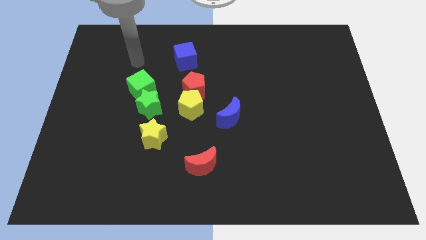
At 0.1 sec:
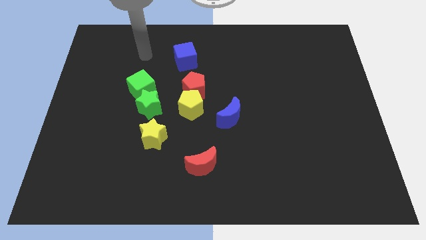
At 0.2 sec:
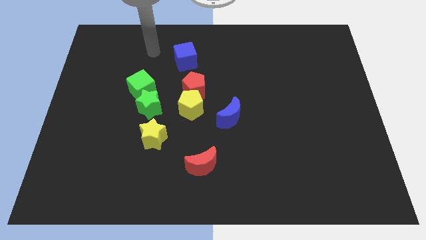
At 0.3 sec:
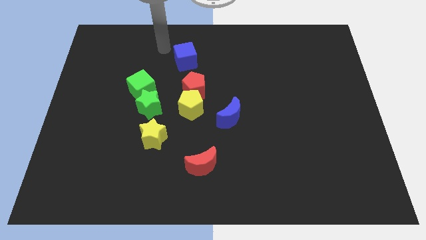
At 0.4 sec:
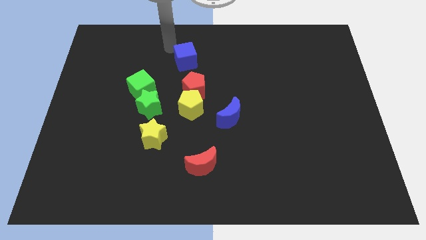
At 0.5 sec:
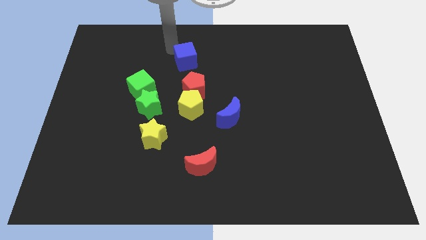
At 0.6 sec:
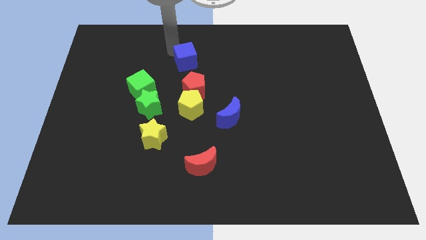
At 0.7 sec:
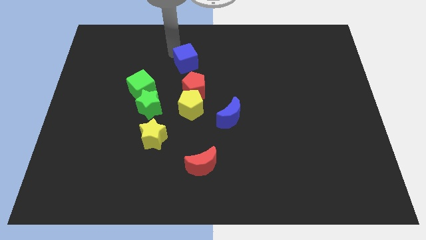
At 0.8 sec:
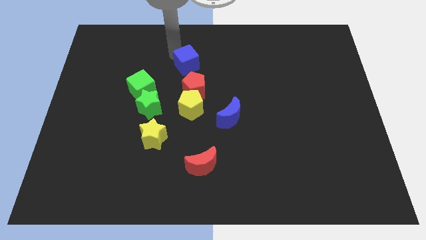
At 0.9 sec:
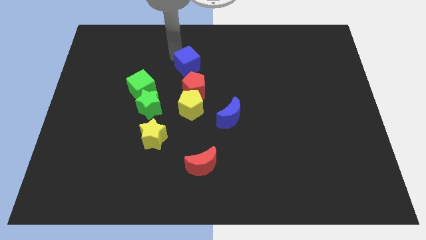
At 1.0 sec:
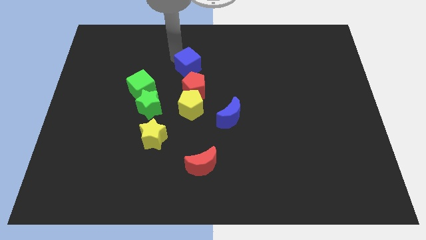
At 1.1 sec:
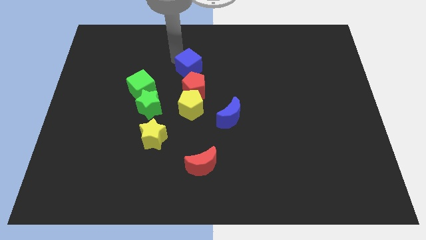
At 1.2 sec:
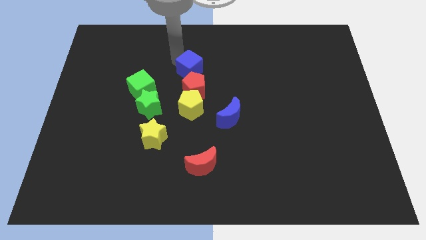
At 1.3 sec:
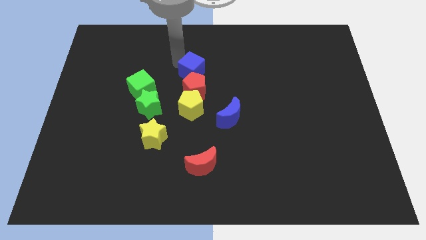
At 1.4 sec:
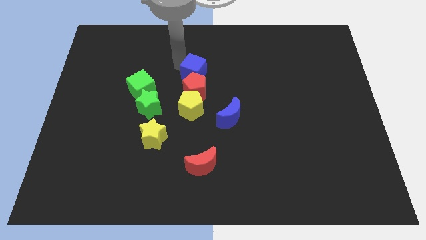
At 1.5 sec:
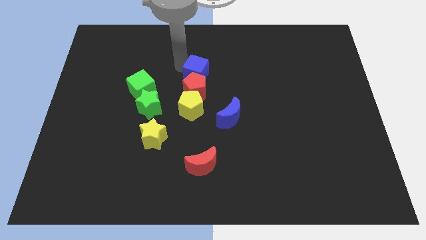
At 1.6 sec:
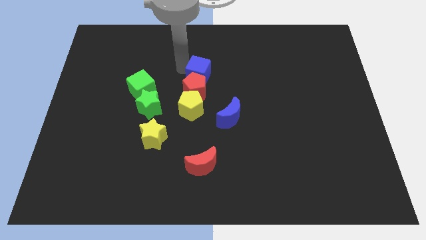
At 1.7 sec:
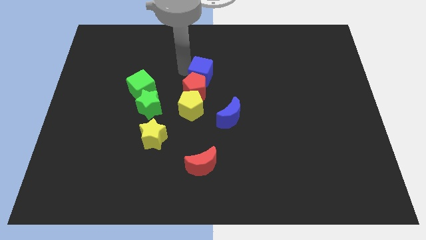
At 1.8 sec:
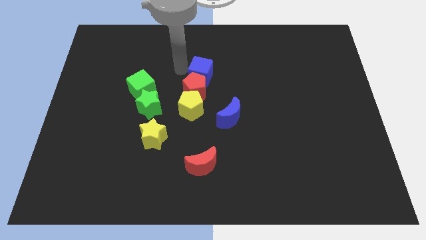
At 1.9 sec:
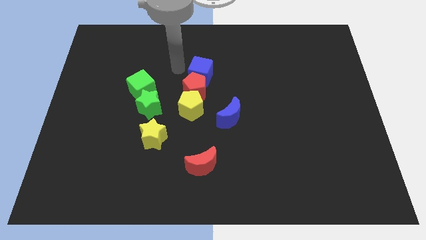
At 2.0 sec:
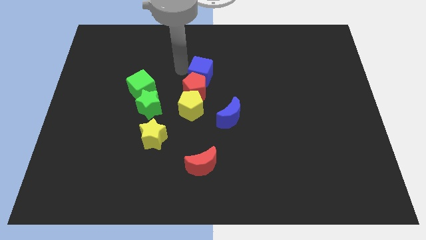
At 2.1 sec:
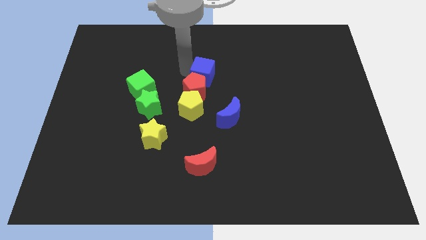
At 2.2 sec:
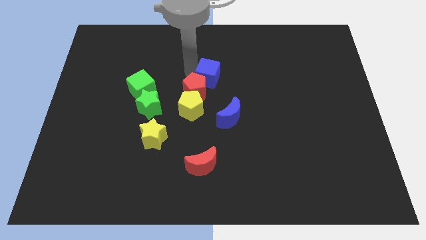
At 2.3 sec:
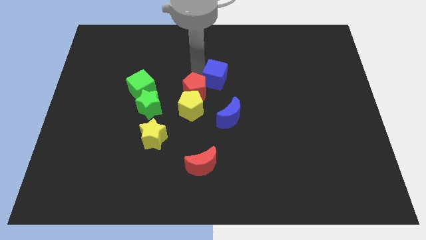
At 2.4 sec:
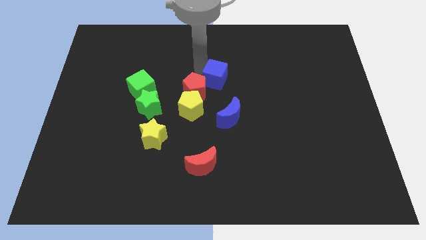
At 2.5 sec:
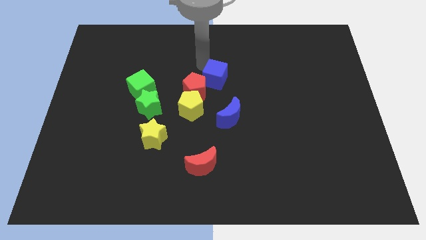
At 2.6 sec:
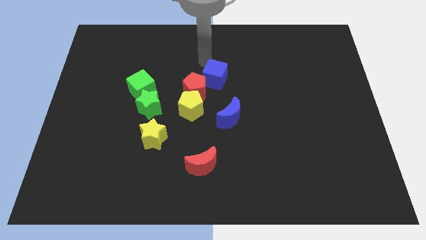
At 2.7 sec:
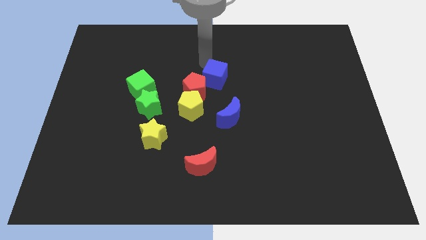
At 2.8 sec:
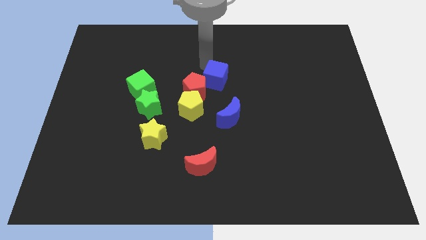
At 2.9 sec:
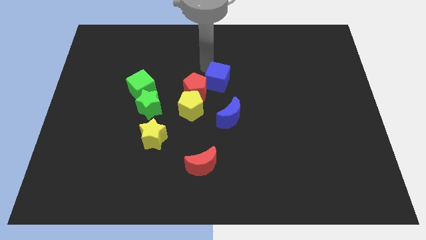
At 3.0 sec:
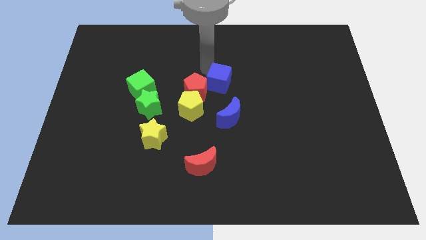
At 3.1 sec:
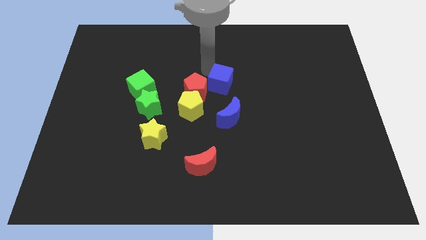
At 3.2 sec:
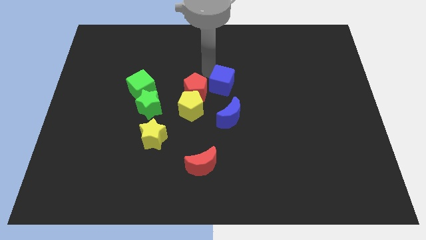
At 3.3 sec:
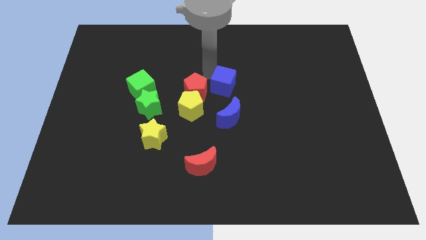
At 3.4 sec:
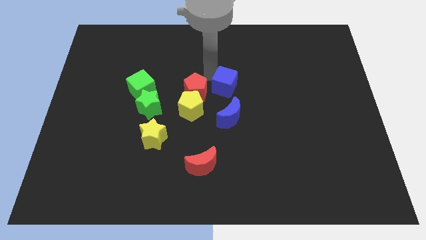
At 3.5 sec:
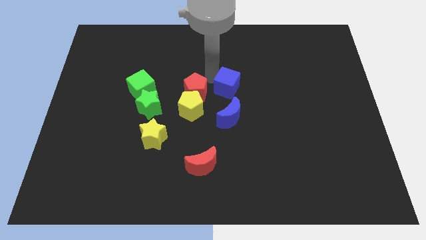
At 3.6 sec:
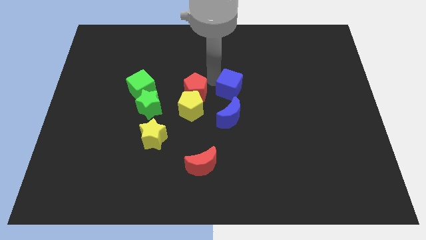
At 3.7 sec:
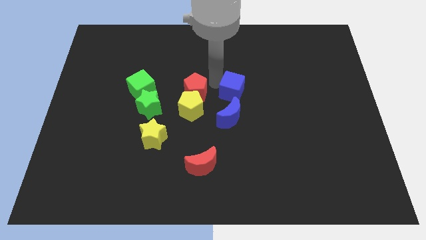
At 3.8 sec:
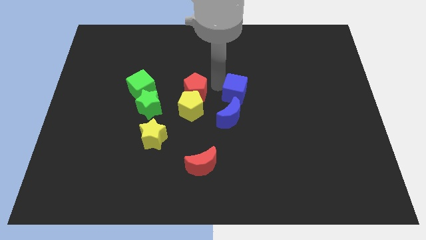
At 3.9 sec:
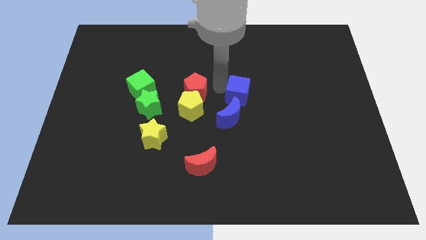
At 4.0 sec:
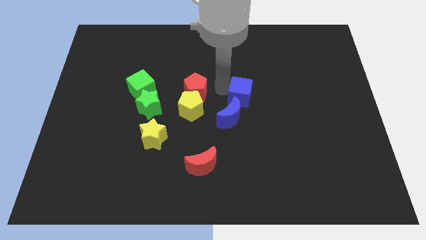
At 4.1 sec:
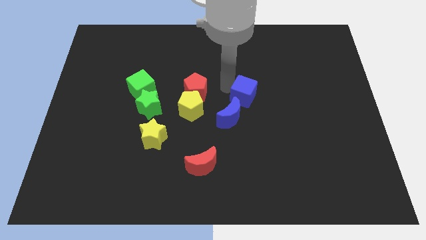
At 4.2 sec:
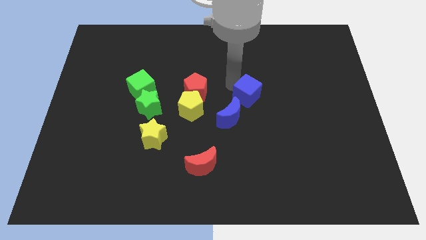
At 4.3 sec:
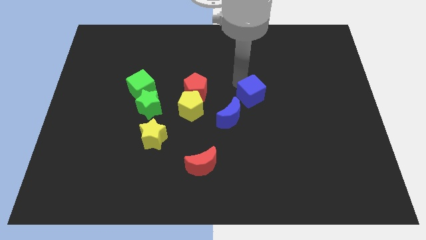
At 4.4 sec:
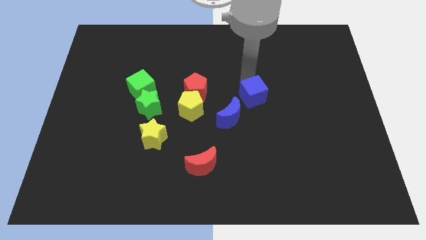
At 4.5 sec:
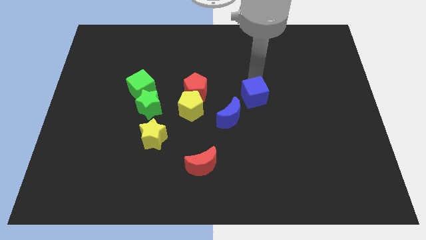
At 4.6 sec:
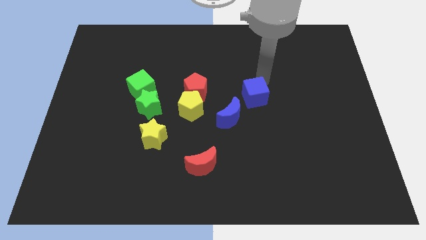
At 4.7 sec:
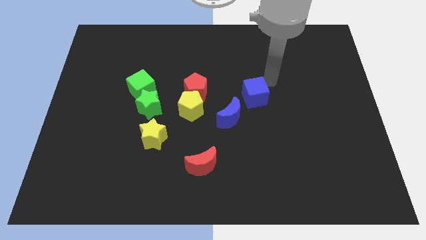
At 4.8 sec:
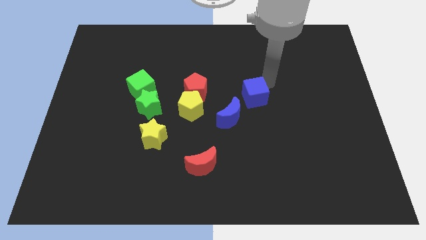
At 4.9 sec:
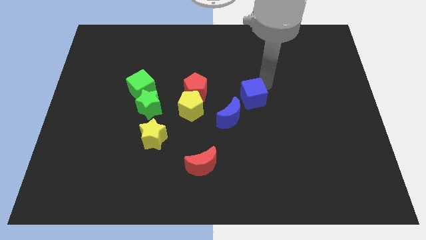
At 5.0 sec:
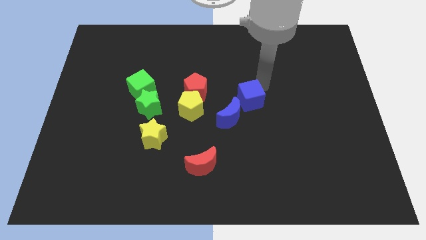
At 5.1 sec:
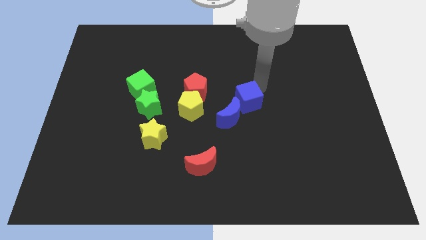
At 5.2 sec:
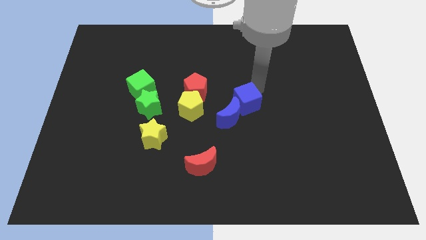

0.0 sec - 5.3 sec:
move the blue cube to the blue moon

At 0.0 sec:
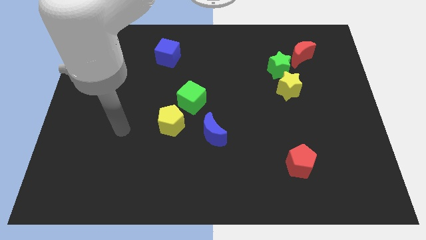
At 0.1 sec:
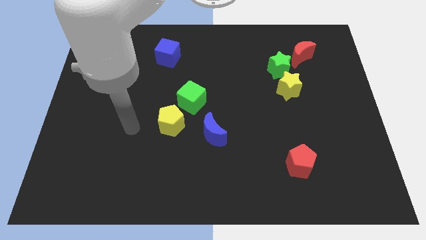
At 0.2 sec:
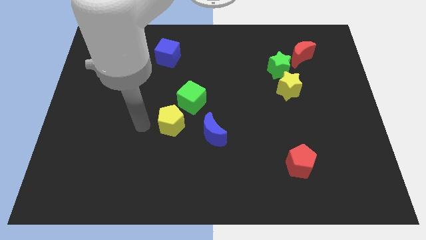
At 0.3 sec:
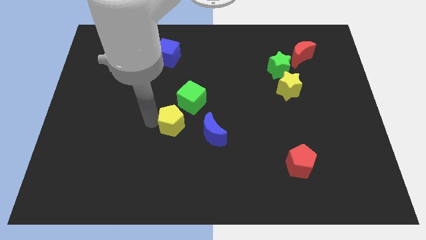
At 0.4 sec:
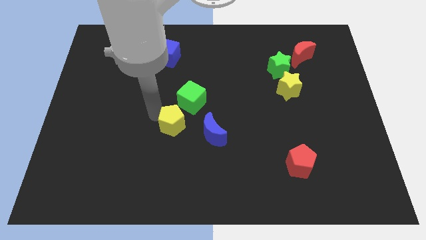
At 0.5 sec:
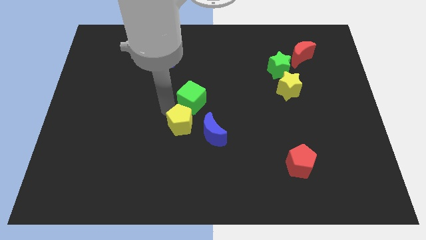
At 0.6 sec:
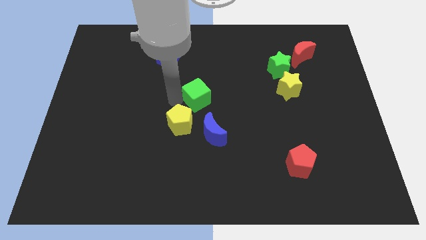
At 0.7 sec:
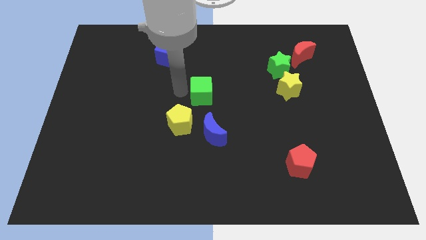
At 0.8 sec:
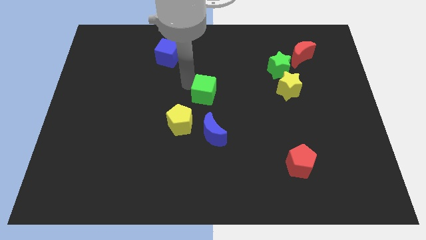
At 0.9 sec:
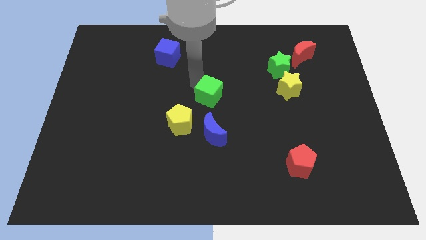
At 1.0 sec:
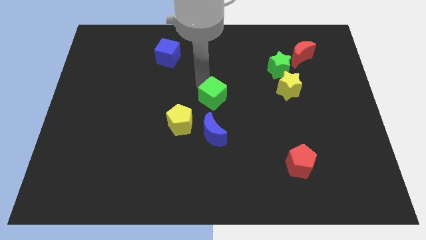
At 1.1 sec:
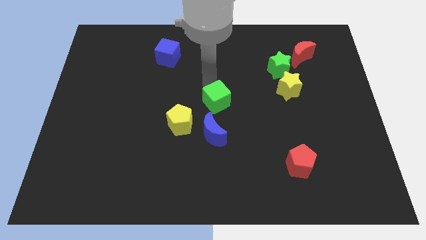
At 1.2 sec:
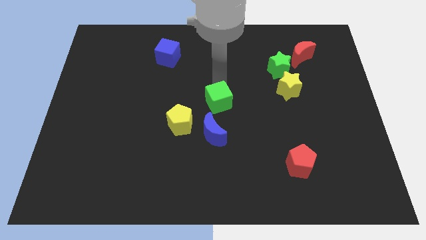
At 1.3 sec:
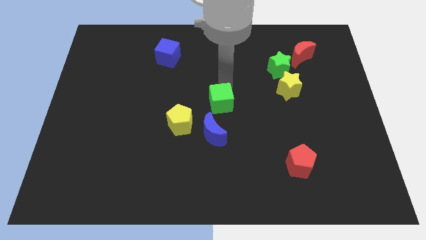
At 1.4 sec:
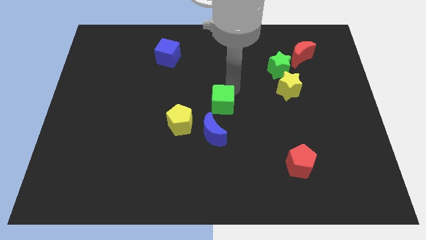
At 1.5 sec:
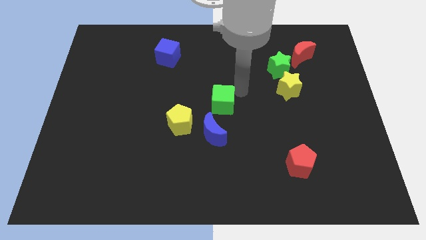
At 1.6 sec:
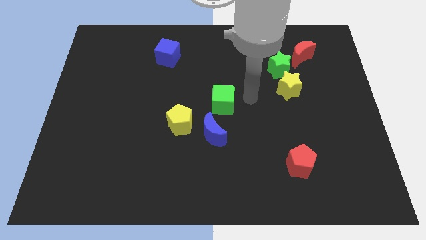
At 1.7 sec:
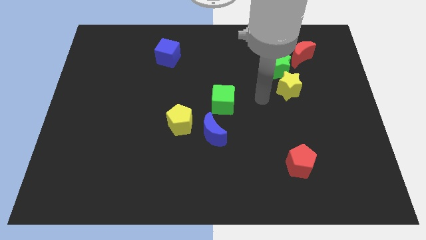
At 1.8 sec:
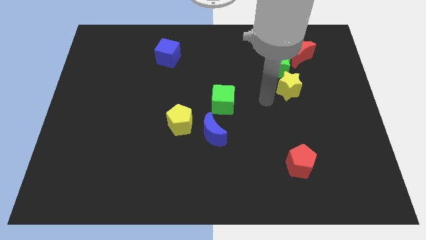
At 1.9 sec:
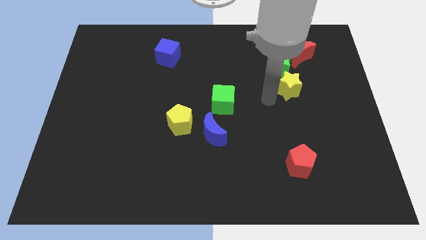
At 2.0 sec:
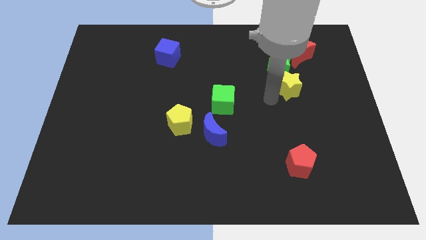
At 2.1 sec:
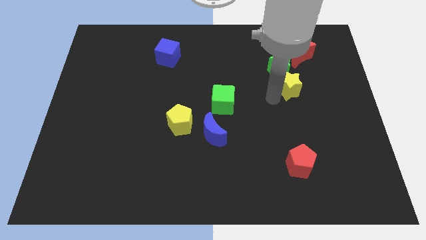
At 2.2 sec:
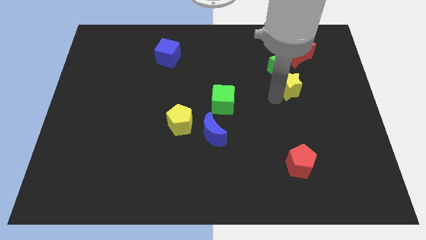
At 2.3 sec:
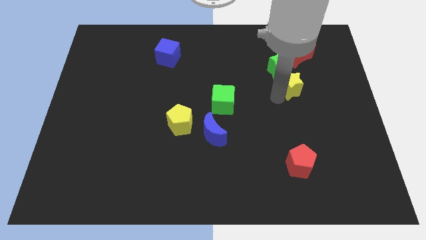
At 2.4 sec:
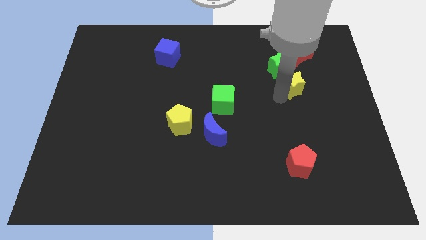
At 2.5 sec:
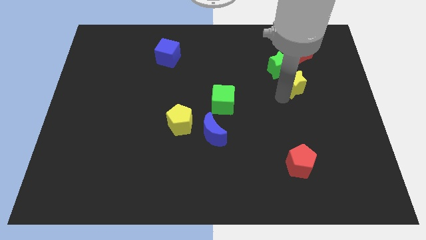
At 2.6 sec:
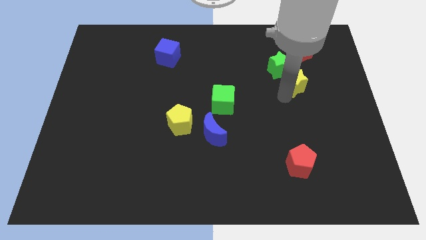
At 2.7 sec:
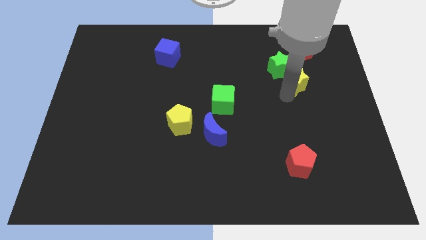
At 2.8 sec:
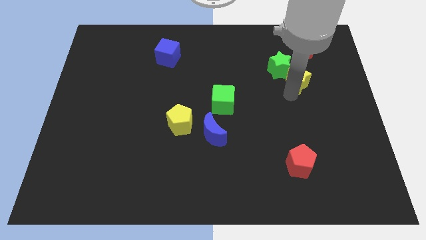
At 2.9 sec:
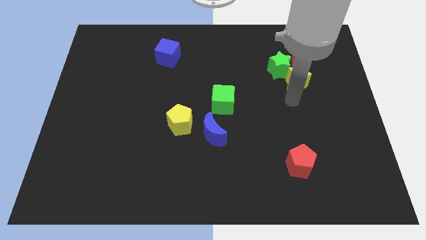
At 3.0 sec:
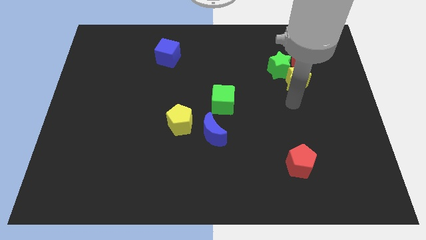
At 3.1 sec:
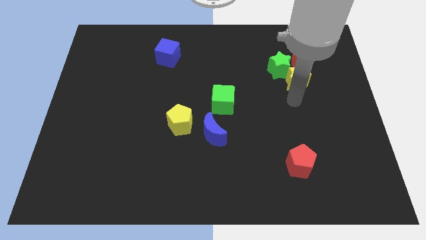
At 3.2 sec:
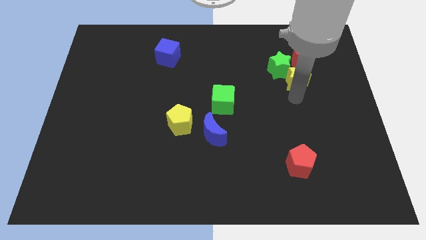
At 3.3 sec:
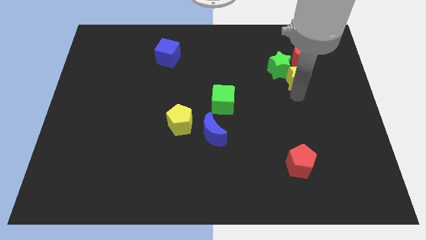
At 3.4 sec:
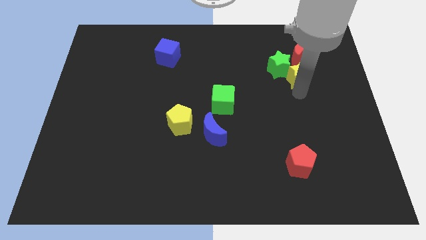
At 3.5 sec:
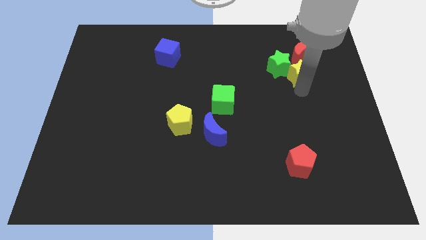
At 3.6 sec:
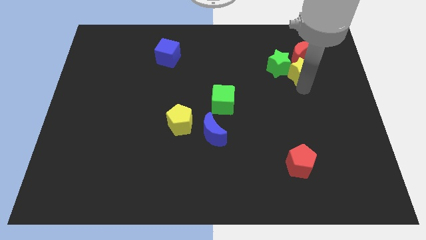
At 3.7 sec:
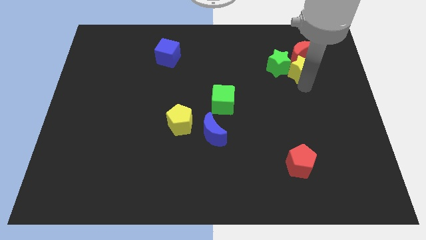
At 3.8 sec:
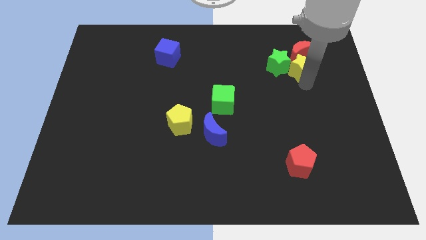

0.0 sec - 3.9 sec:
push the yellow star close to the red moon
